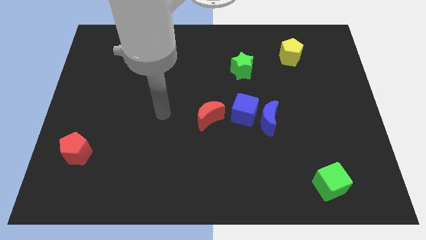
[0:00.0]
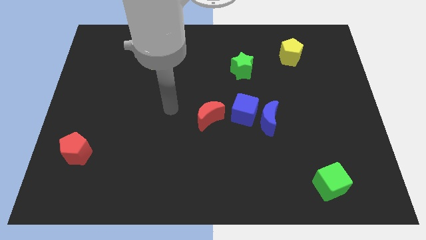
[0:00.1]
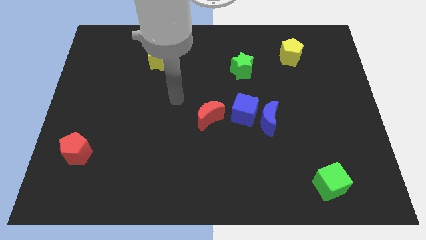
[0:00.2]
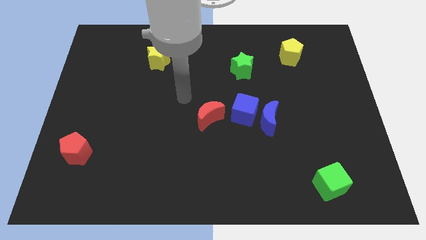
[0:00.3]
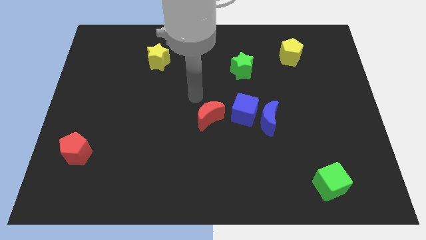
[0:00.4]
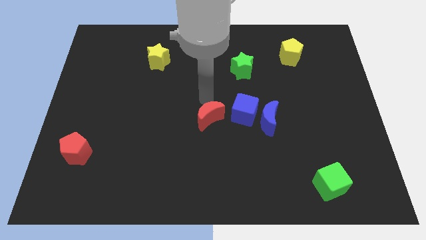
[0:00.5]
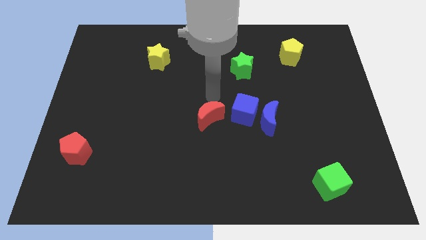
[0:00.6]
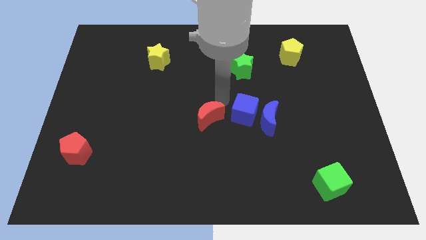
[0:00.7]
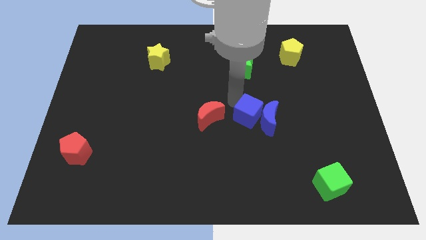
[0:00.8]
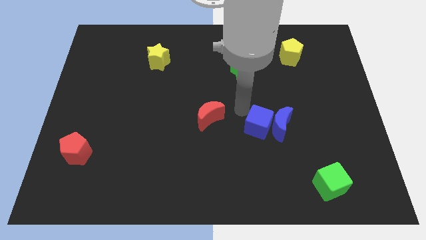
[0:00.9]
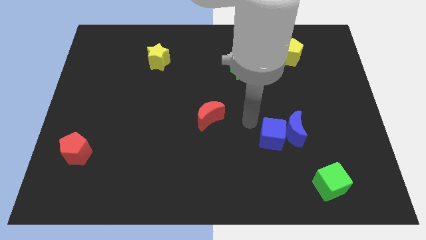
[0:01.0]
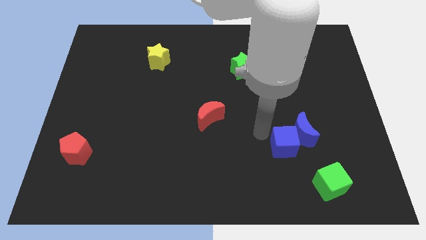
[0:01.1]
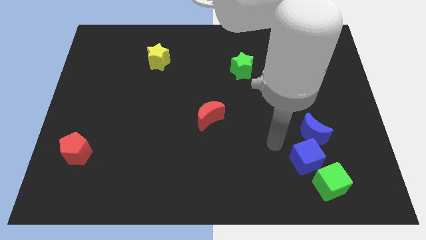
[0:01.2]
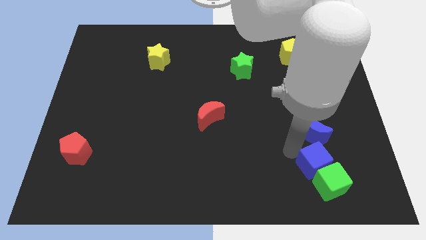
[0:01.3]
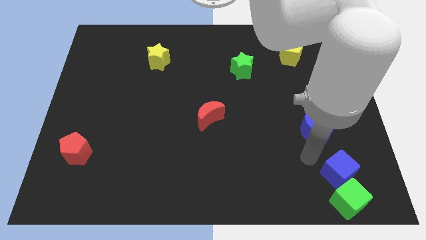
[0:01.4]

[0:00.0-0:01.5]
separate the blue moon from the blue cube

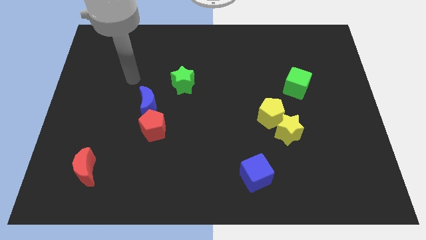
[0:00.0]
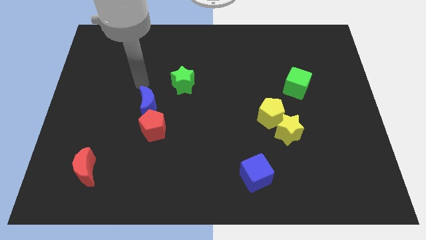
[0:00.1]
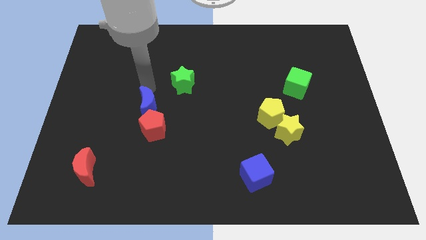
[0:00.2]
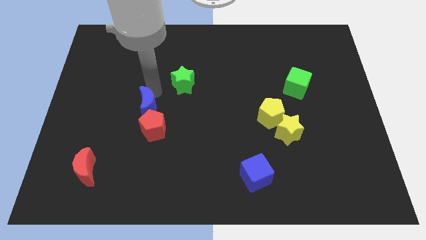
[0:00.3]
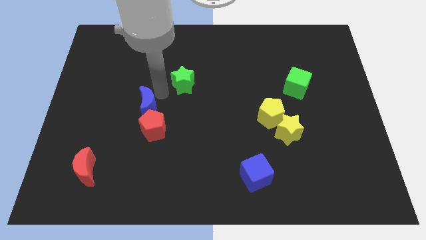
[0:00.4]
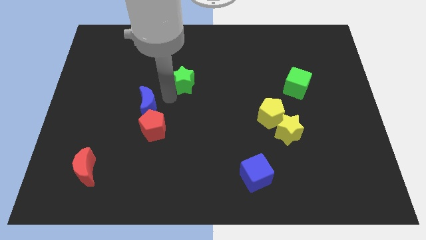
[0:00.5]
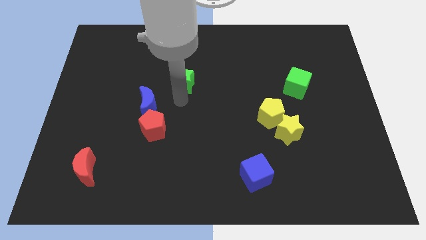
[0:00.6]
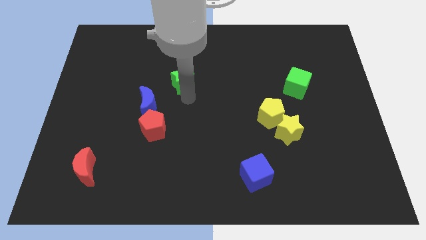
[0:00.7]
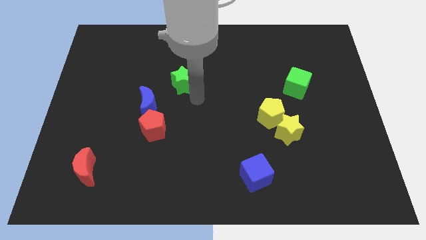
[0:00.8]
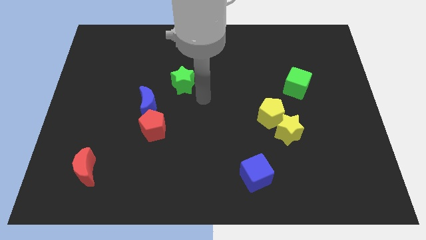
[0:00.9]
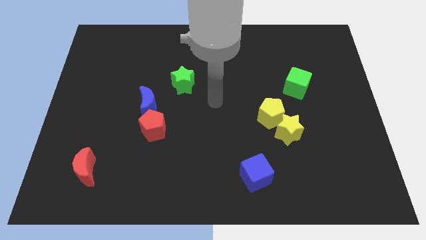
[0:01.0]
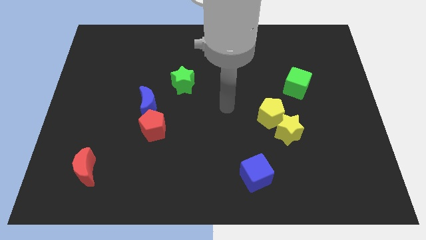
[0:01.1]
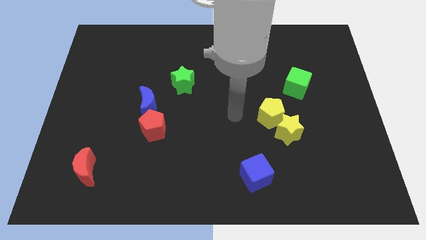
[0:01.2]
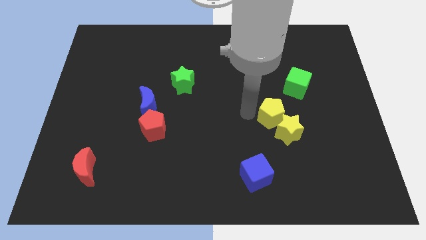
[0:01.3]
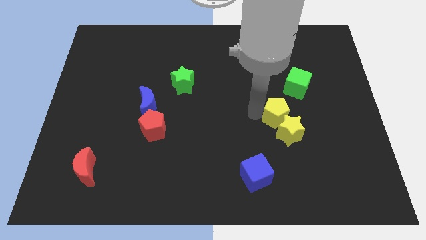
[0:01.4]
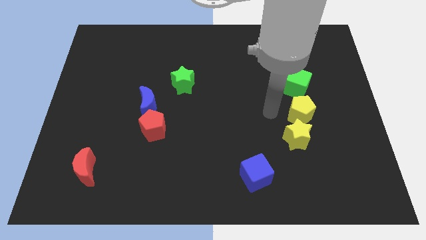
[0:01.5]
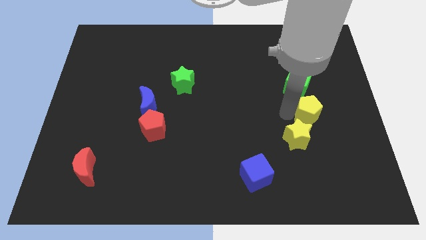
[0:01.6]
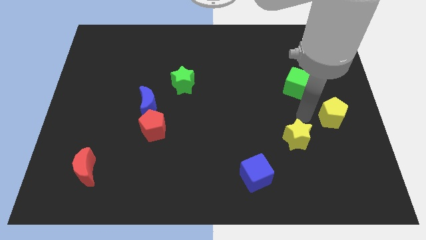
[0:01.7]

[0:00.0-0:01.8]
pull the yellow star apart from the yellow pentagon

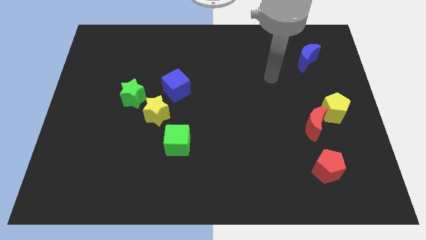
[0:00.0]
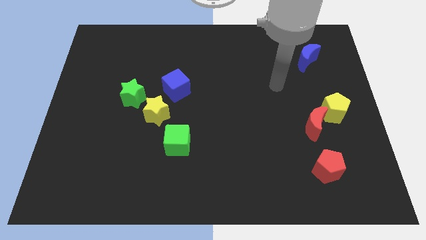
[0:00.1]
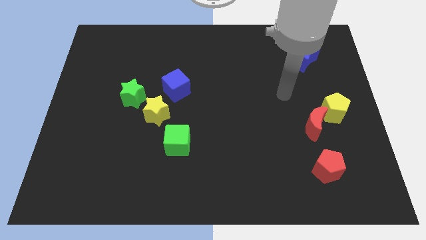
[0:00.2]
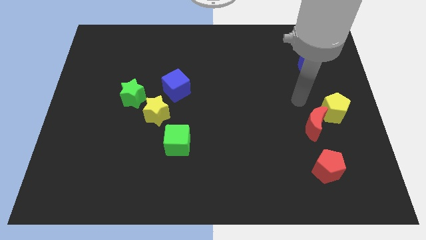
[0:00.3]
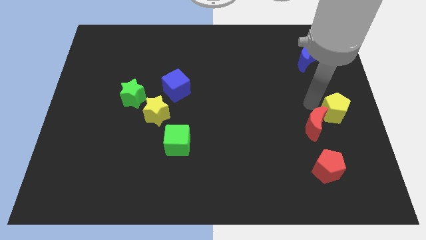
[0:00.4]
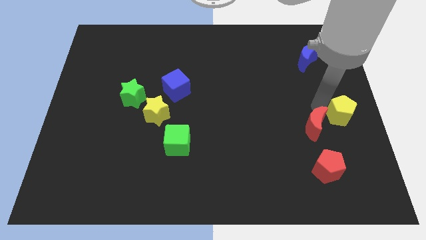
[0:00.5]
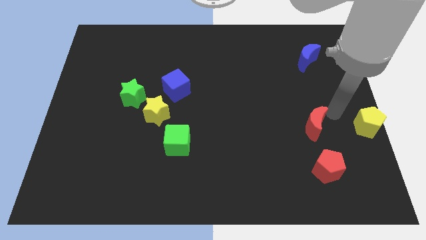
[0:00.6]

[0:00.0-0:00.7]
move the red moon away from the yellow pentagon

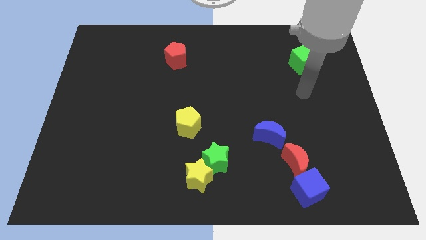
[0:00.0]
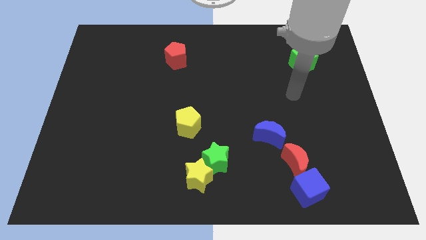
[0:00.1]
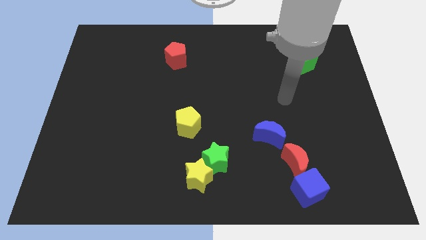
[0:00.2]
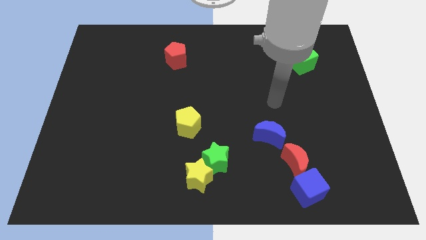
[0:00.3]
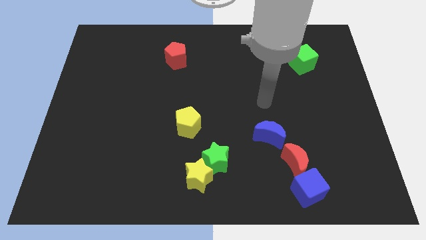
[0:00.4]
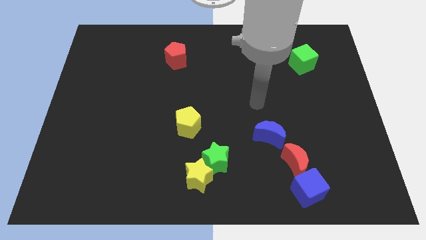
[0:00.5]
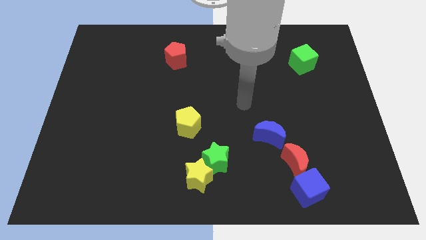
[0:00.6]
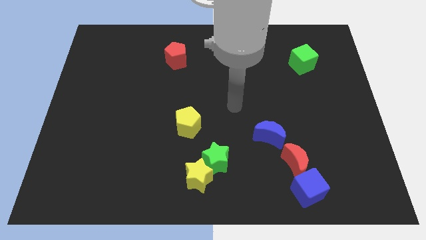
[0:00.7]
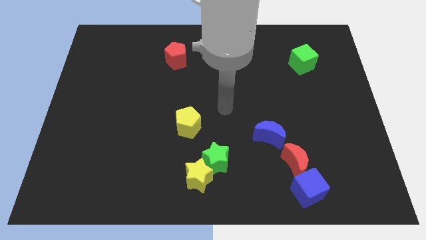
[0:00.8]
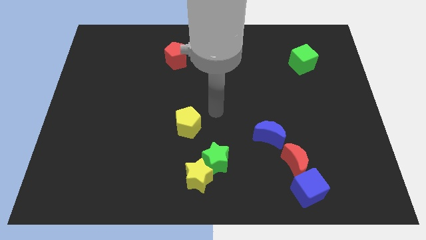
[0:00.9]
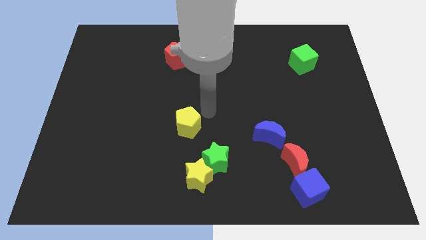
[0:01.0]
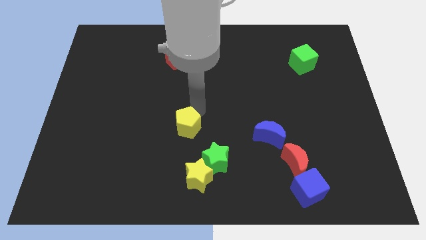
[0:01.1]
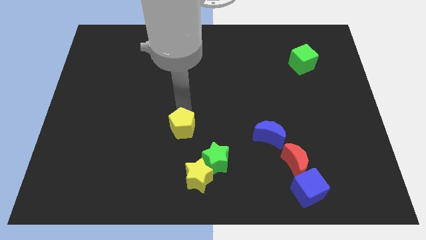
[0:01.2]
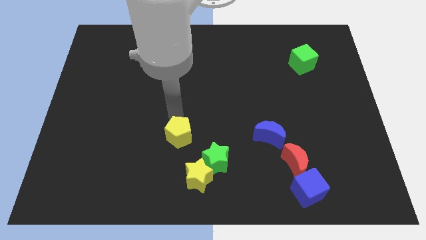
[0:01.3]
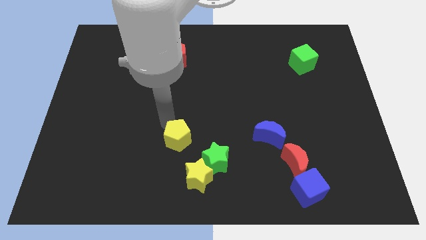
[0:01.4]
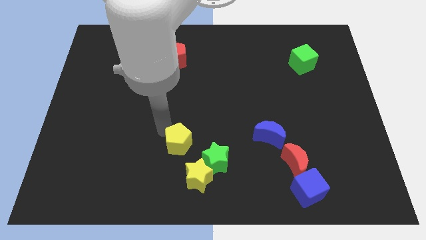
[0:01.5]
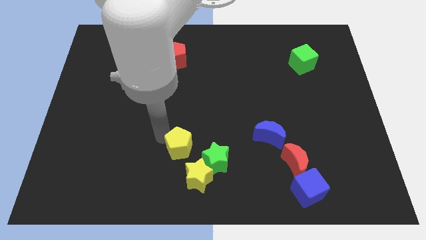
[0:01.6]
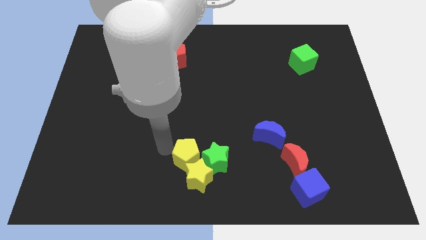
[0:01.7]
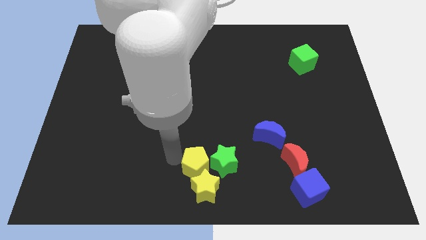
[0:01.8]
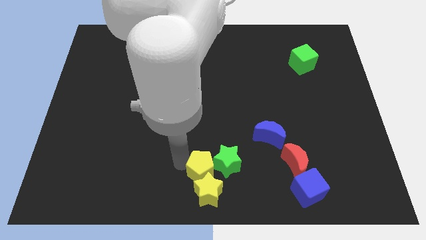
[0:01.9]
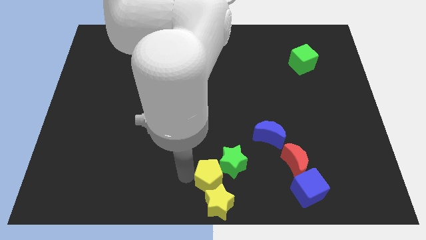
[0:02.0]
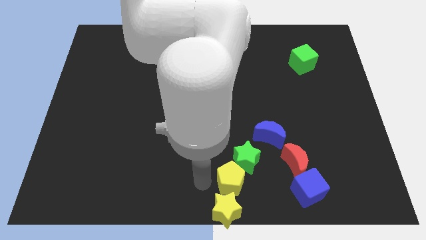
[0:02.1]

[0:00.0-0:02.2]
separate the green star from the yellow star

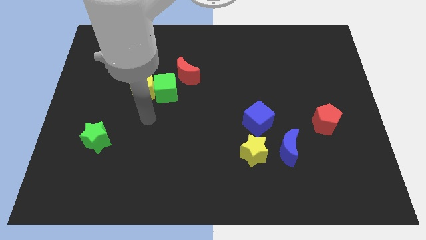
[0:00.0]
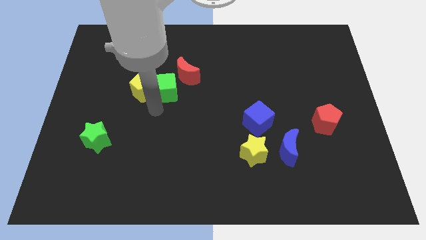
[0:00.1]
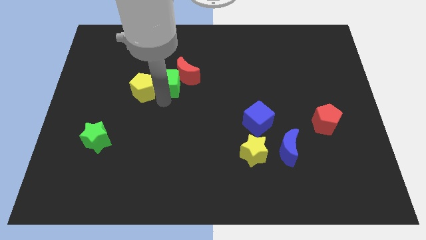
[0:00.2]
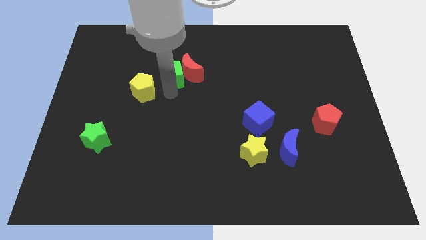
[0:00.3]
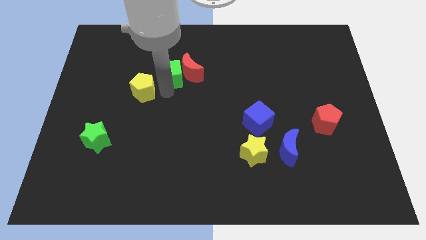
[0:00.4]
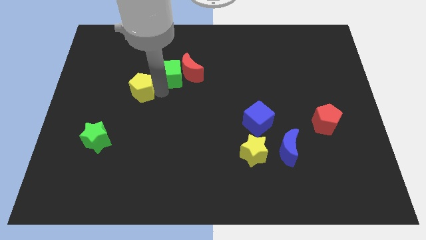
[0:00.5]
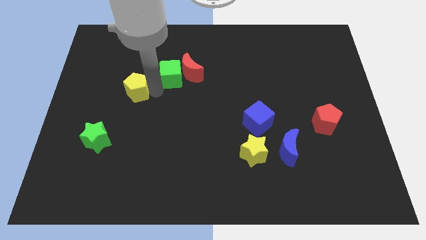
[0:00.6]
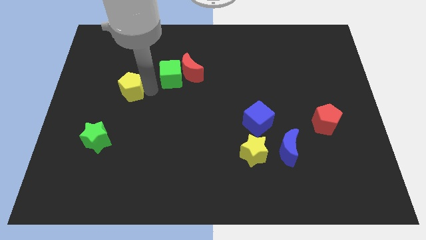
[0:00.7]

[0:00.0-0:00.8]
move the yellow pentagon away from the green cube

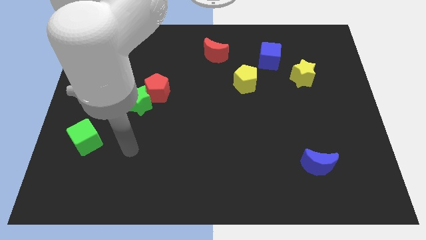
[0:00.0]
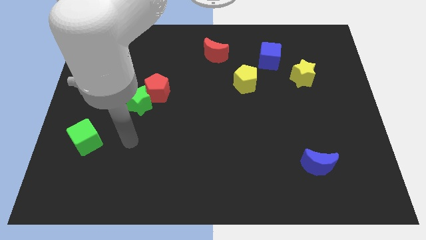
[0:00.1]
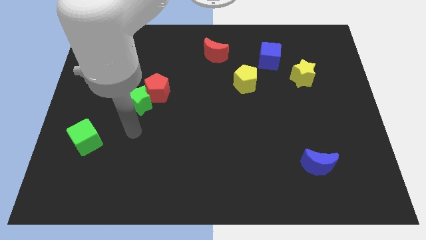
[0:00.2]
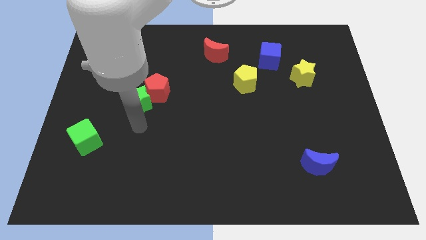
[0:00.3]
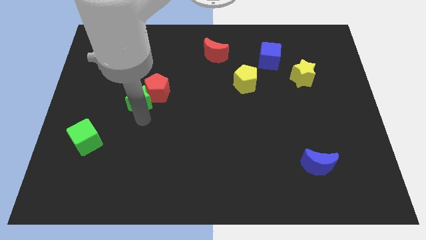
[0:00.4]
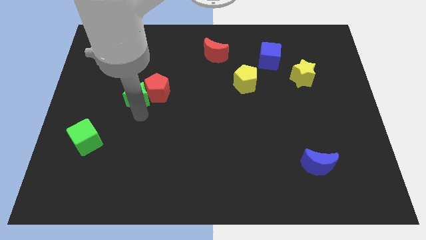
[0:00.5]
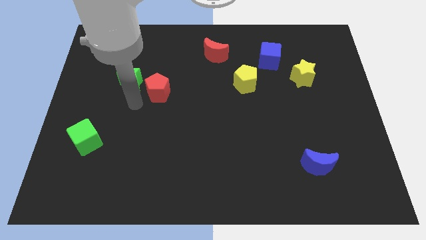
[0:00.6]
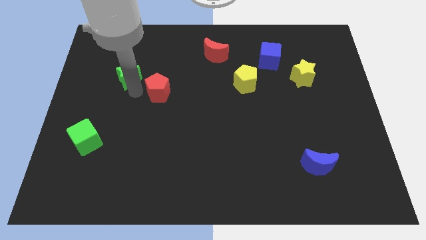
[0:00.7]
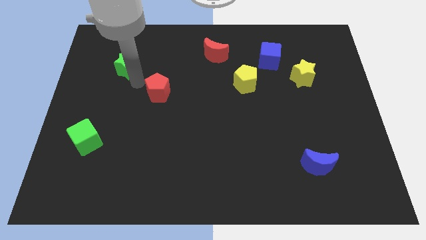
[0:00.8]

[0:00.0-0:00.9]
move the red pentagon away from the green star

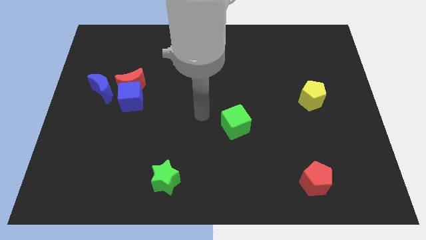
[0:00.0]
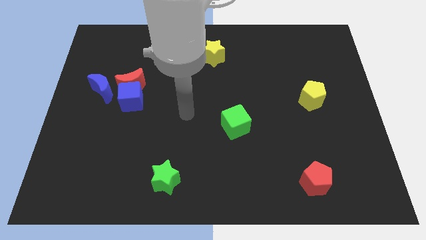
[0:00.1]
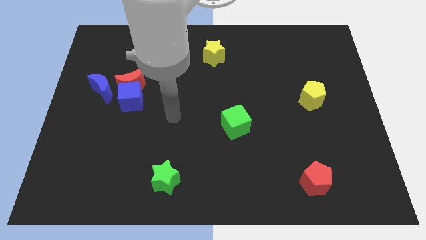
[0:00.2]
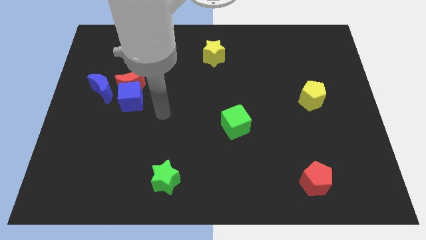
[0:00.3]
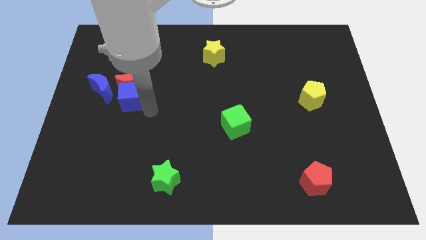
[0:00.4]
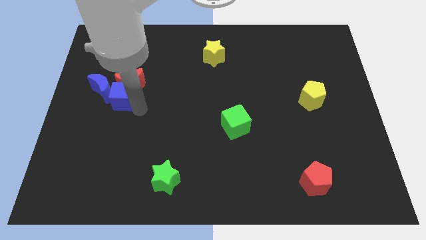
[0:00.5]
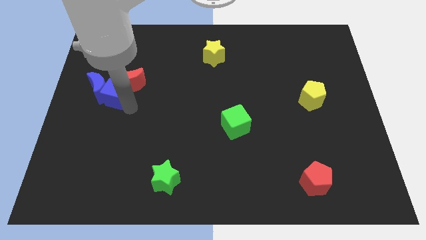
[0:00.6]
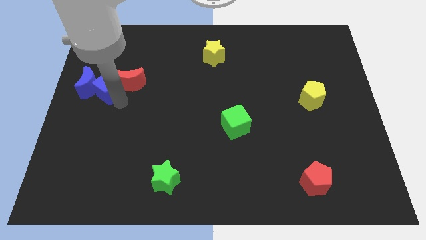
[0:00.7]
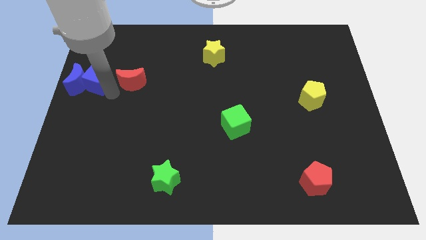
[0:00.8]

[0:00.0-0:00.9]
pull the red moon apart from the blue cube and blue moon

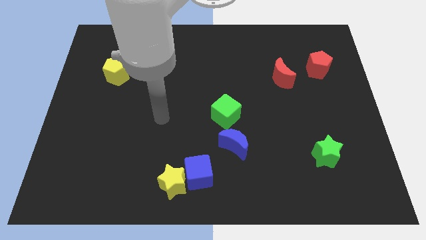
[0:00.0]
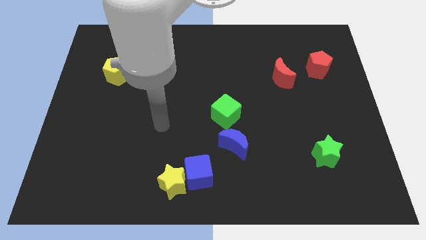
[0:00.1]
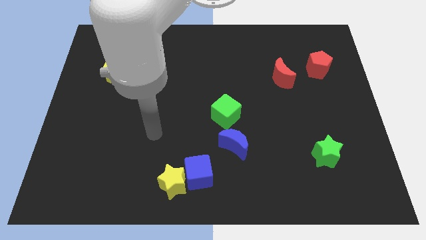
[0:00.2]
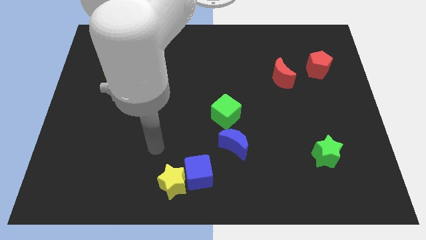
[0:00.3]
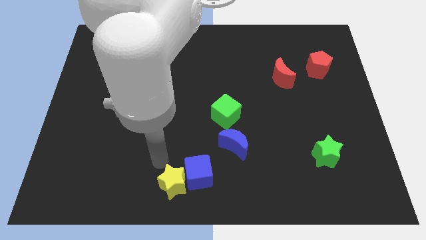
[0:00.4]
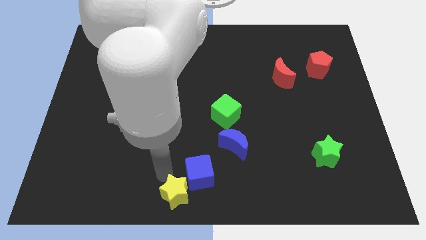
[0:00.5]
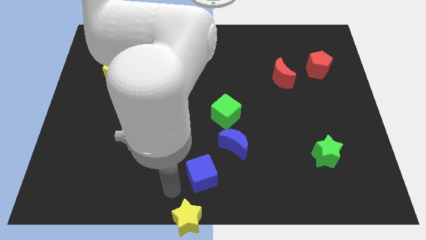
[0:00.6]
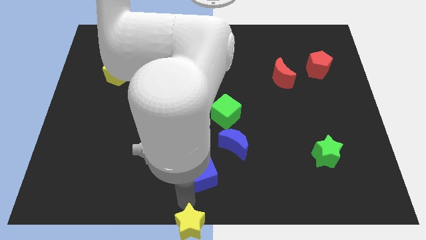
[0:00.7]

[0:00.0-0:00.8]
move the blue cube away from the yellow star
